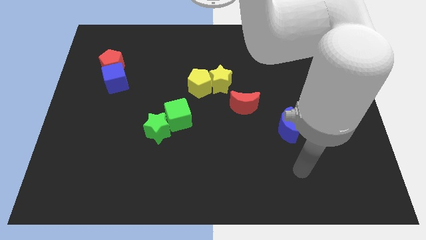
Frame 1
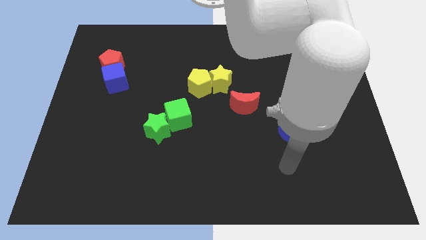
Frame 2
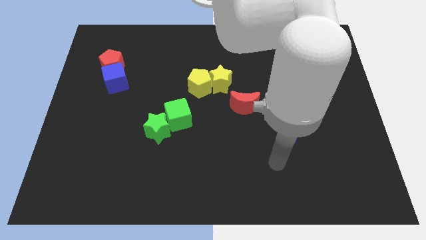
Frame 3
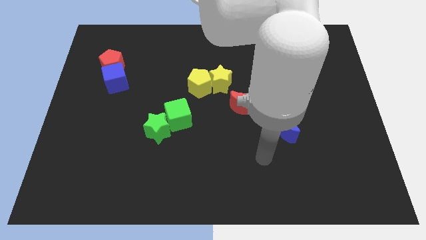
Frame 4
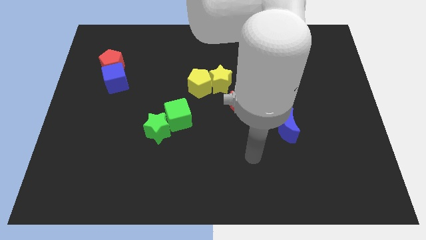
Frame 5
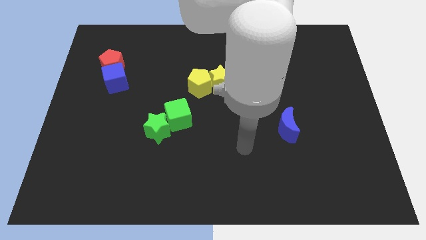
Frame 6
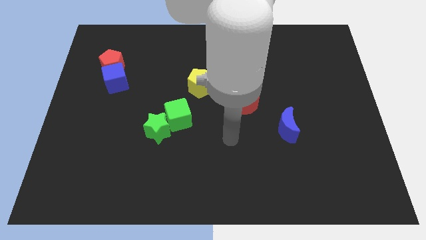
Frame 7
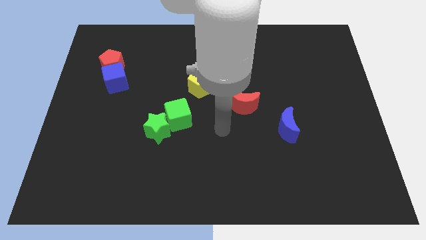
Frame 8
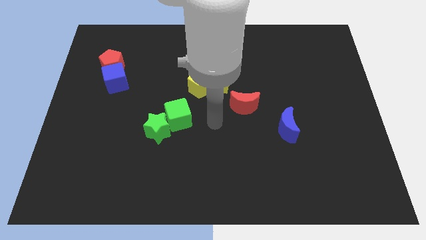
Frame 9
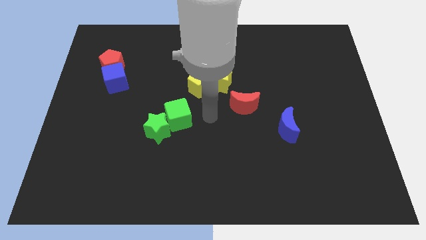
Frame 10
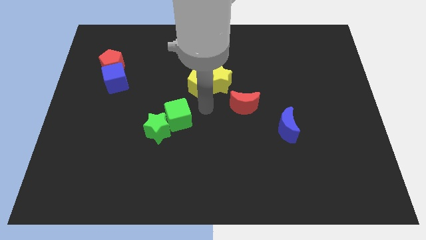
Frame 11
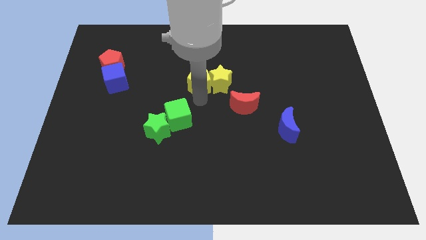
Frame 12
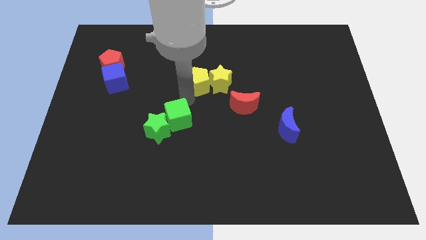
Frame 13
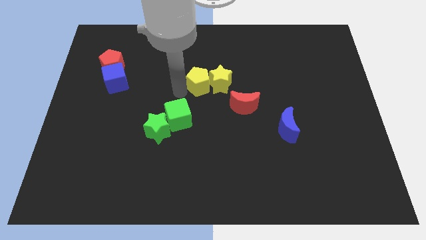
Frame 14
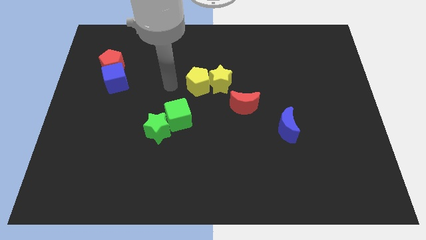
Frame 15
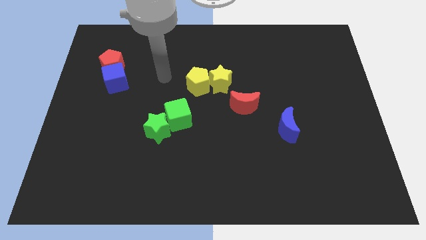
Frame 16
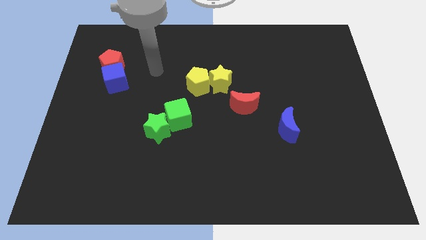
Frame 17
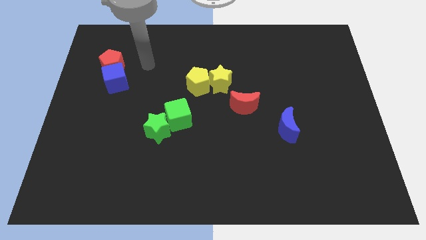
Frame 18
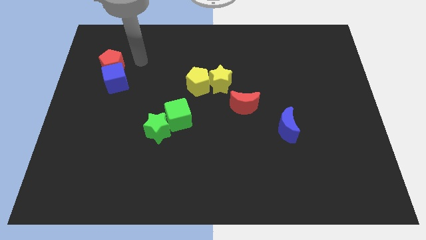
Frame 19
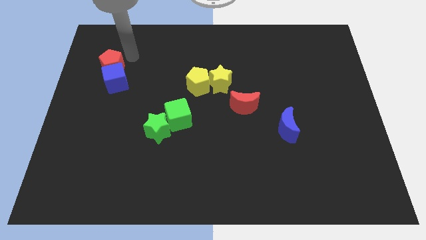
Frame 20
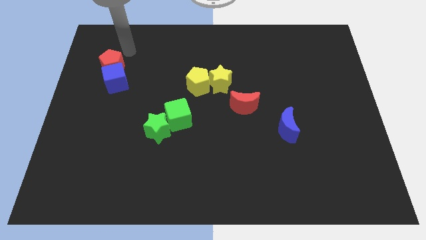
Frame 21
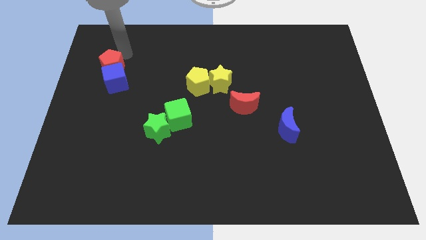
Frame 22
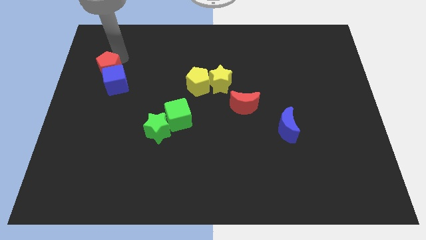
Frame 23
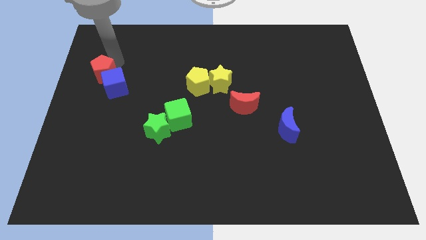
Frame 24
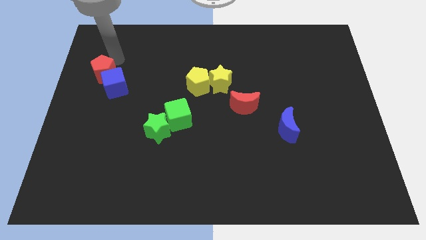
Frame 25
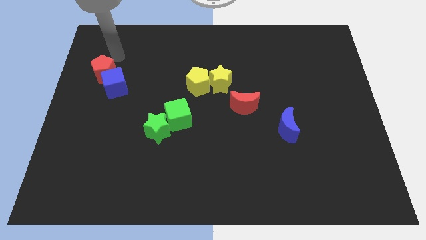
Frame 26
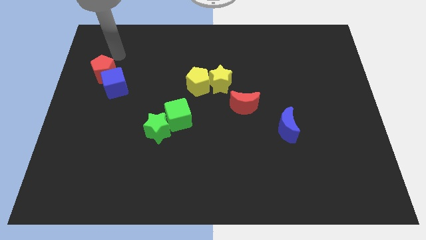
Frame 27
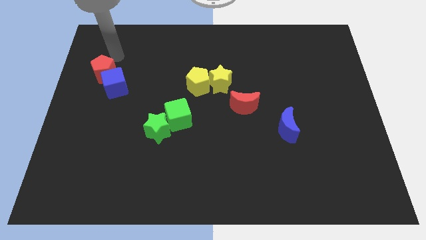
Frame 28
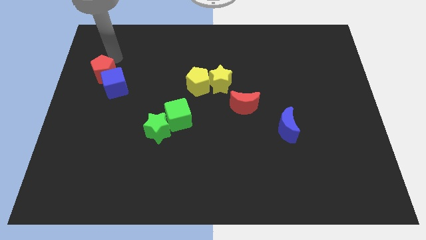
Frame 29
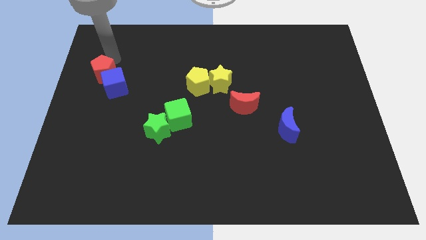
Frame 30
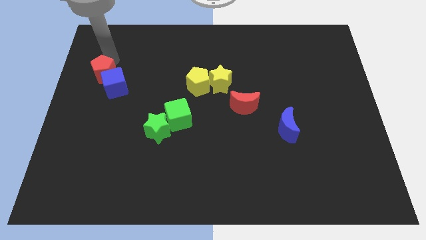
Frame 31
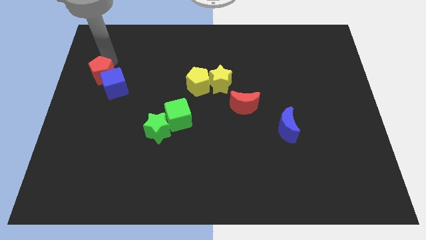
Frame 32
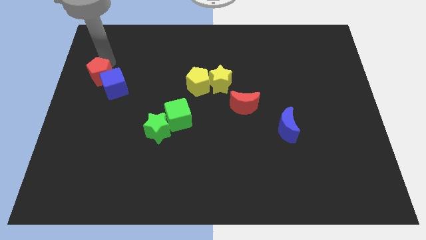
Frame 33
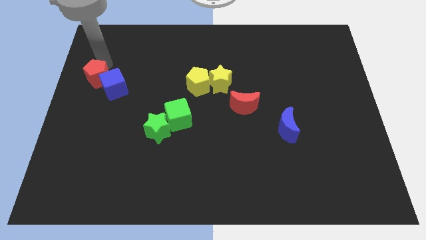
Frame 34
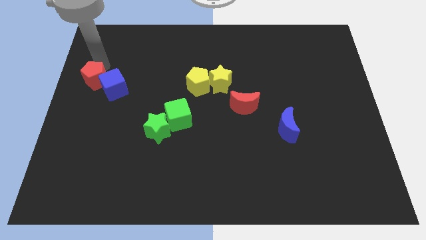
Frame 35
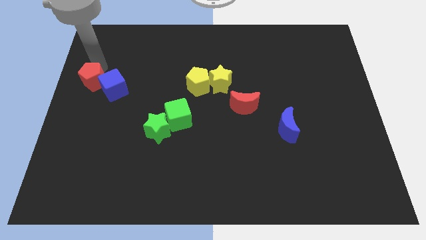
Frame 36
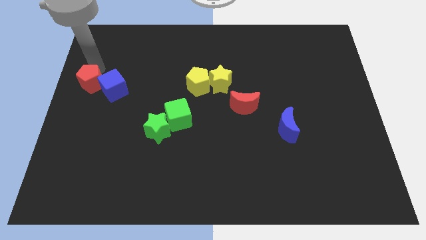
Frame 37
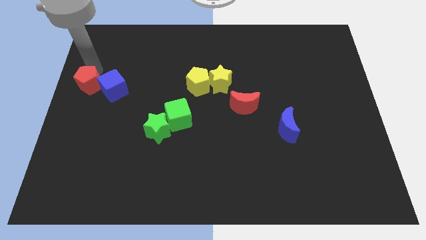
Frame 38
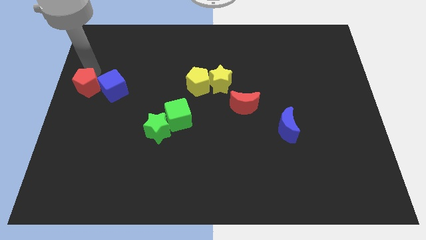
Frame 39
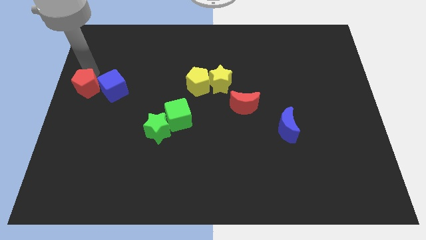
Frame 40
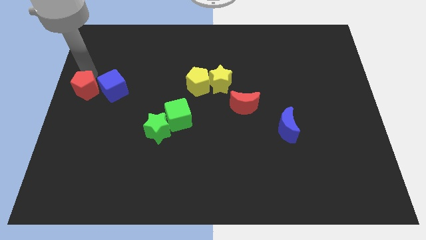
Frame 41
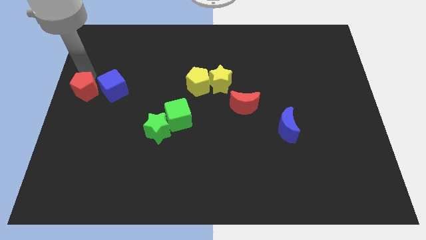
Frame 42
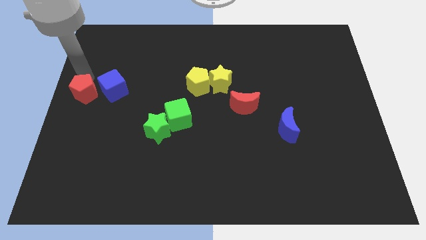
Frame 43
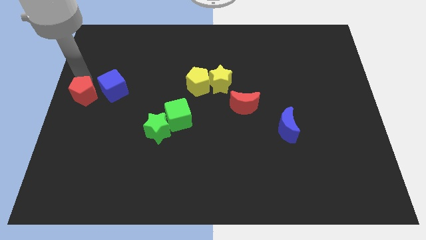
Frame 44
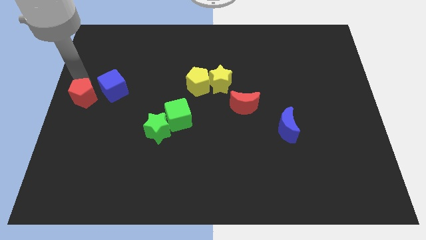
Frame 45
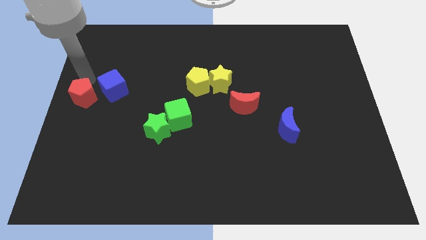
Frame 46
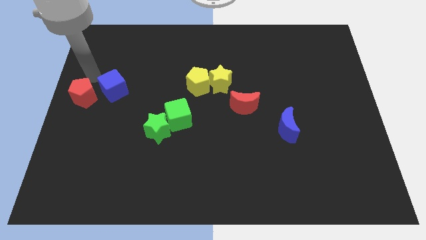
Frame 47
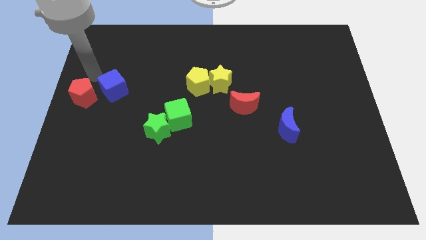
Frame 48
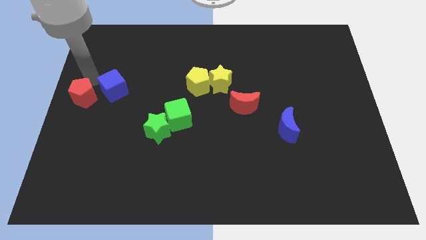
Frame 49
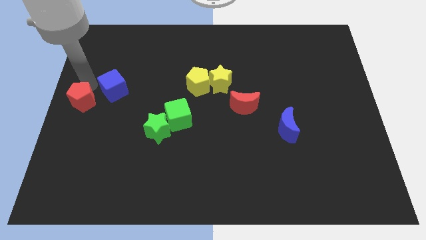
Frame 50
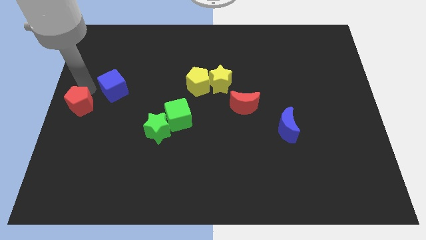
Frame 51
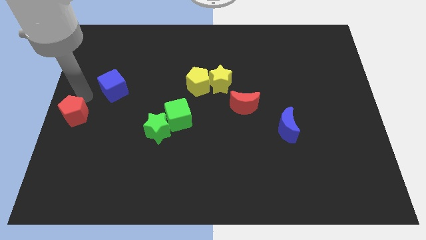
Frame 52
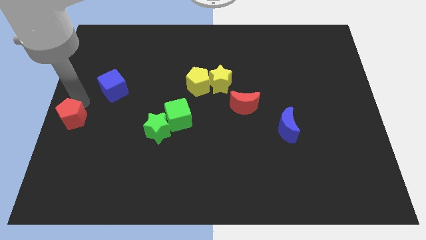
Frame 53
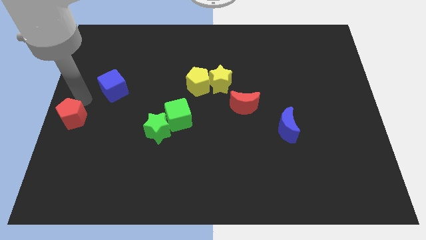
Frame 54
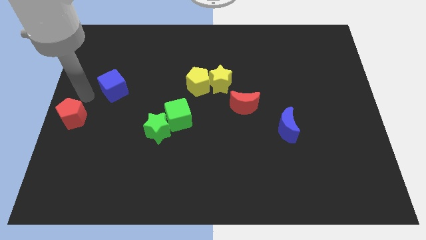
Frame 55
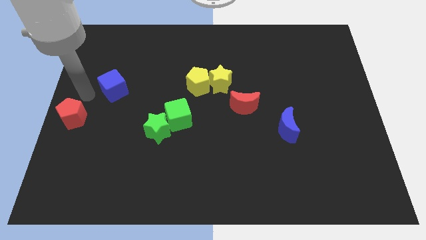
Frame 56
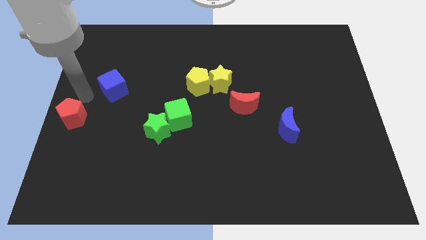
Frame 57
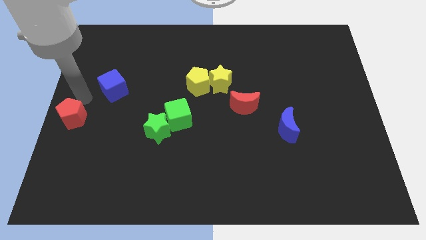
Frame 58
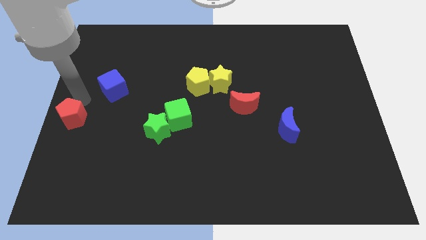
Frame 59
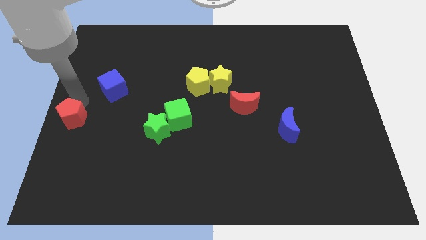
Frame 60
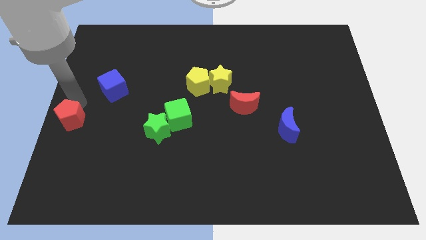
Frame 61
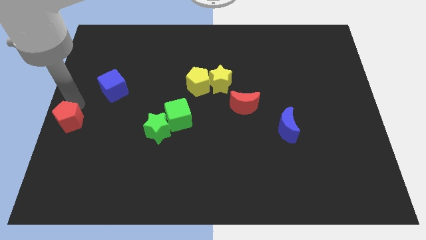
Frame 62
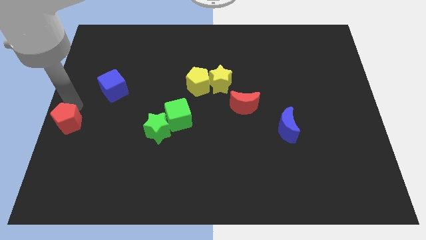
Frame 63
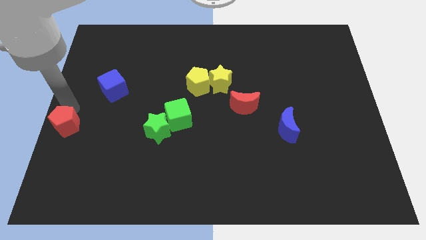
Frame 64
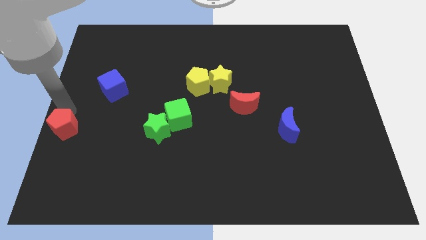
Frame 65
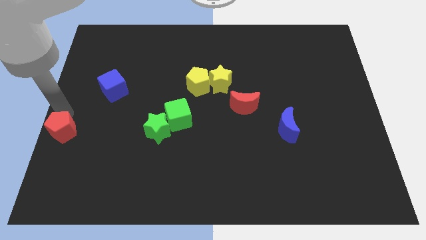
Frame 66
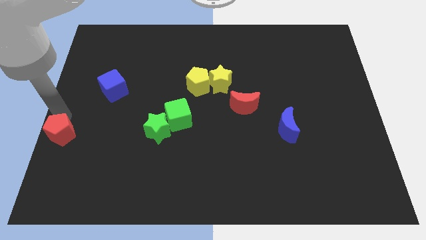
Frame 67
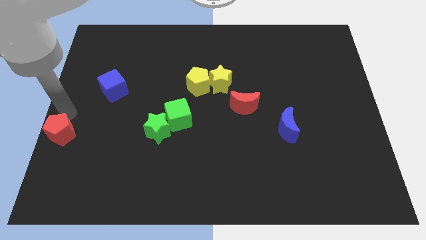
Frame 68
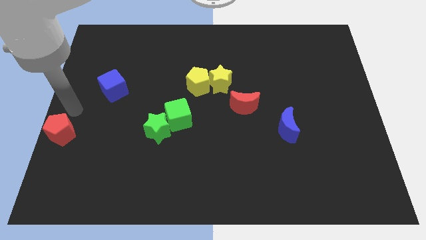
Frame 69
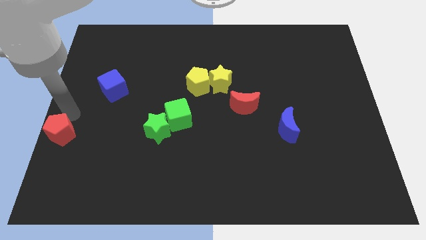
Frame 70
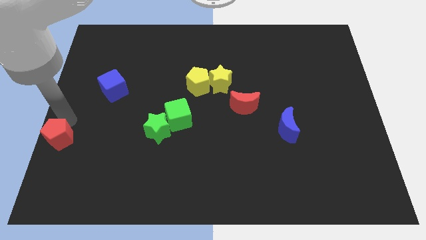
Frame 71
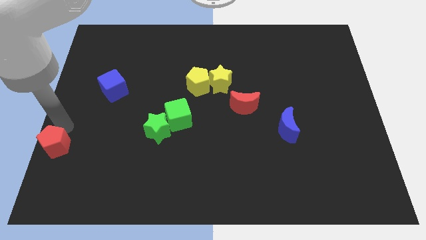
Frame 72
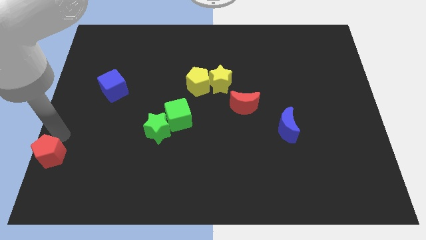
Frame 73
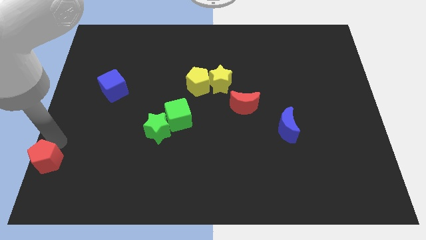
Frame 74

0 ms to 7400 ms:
move the red pentagon to the bottom left of the board
